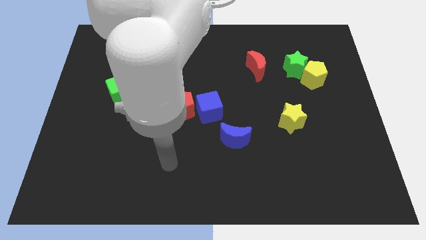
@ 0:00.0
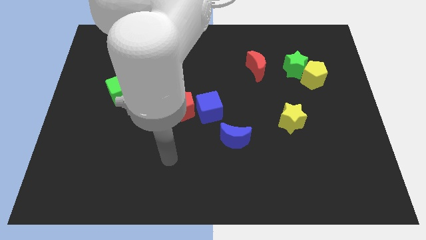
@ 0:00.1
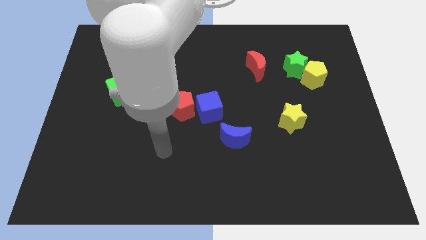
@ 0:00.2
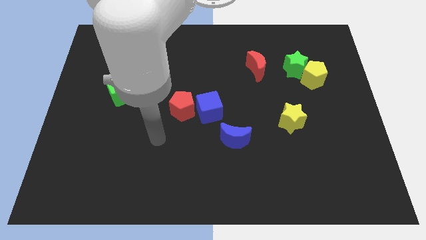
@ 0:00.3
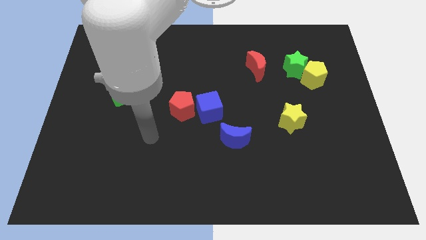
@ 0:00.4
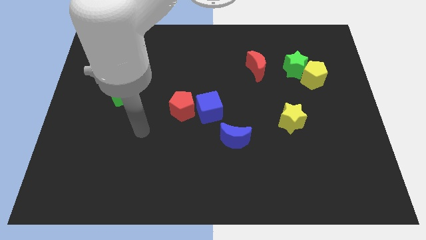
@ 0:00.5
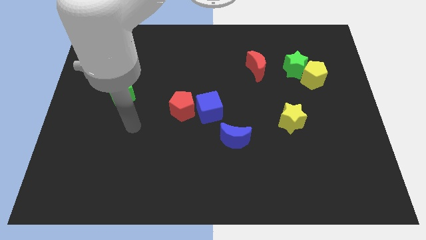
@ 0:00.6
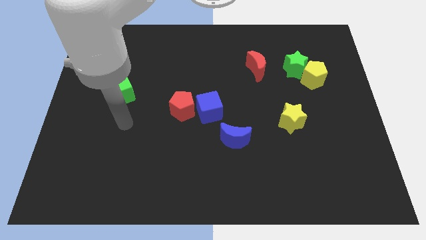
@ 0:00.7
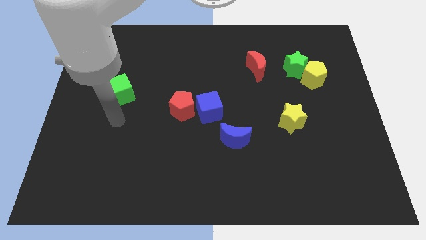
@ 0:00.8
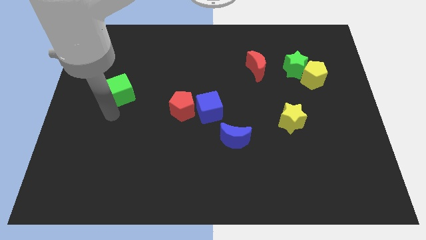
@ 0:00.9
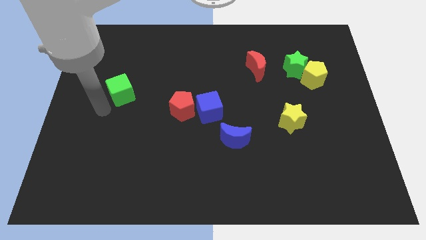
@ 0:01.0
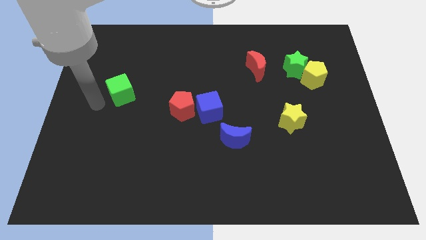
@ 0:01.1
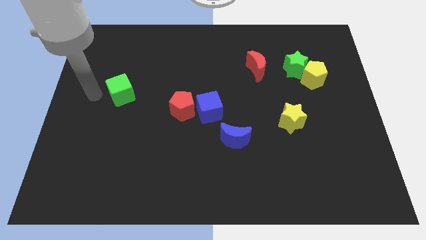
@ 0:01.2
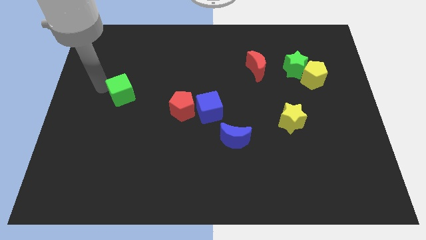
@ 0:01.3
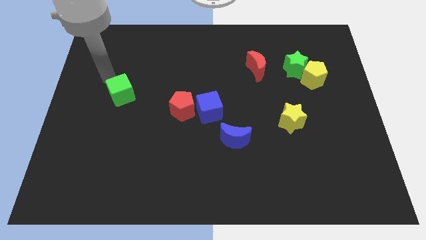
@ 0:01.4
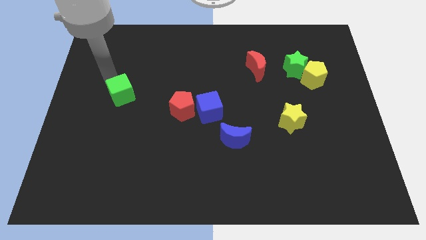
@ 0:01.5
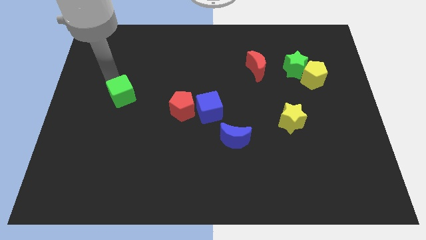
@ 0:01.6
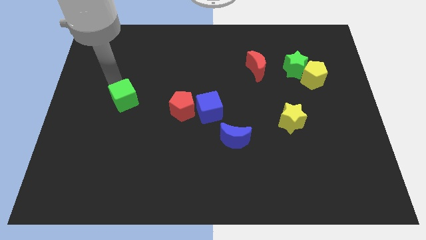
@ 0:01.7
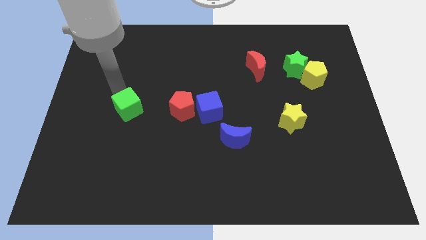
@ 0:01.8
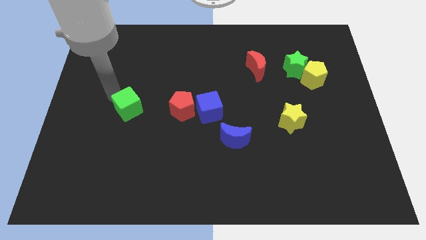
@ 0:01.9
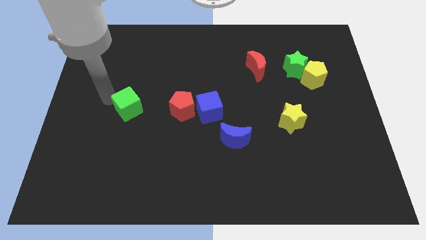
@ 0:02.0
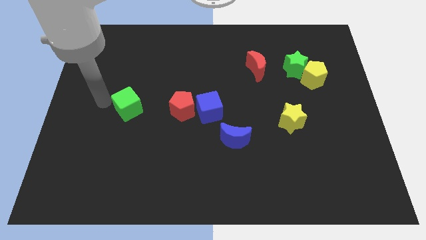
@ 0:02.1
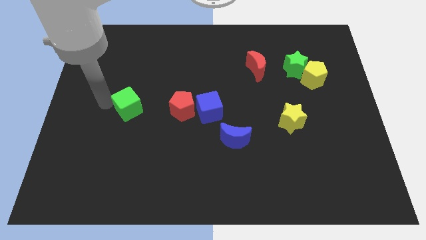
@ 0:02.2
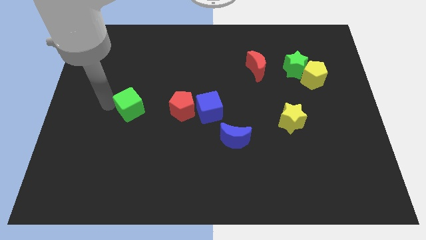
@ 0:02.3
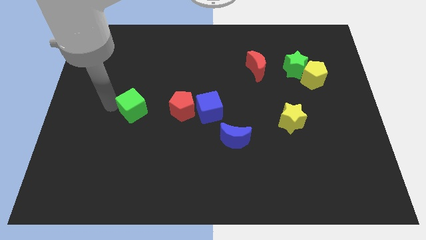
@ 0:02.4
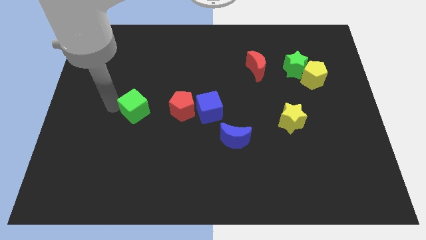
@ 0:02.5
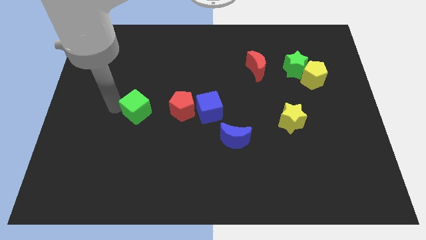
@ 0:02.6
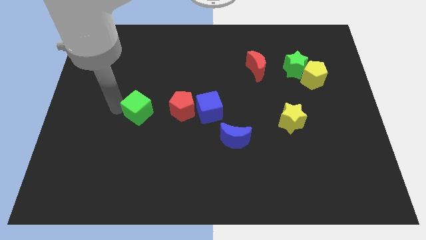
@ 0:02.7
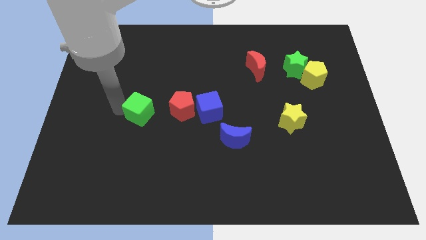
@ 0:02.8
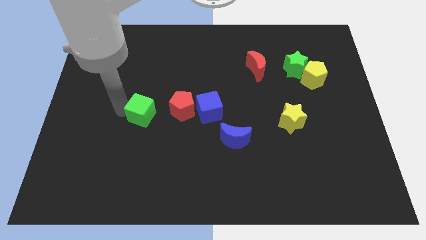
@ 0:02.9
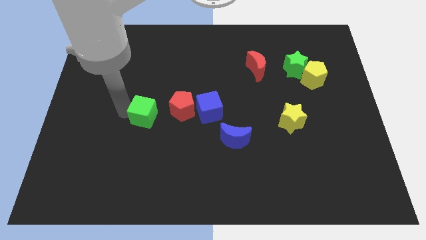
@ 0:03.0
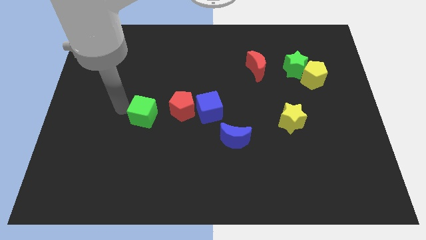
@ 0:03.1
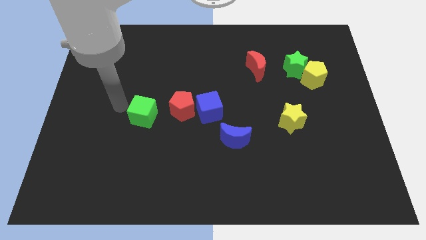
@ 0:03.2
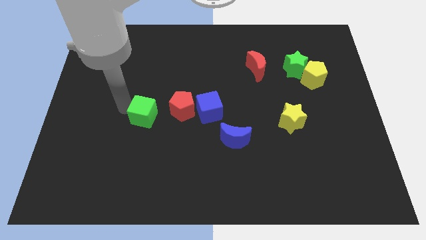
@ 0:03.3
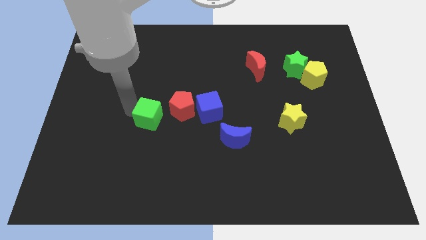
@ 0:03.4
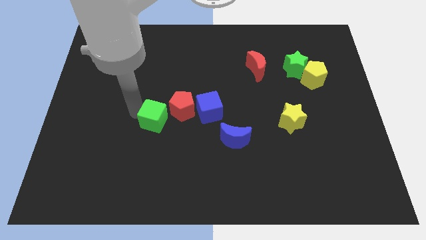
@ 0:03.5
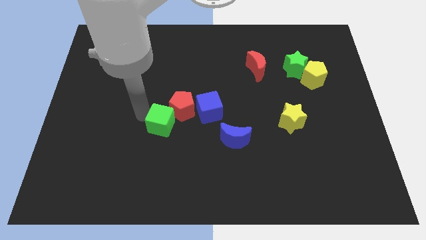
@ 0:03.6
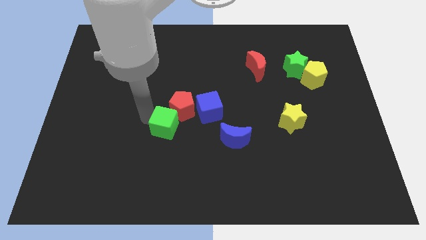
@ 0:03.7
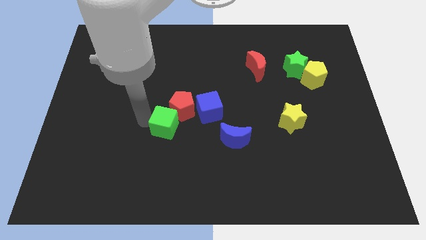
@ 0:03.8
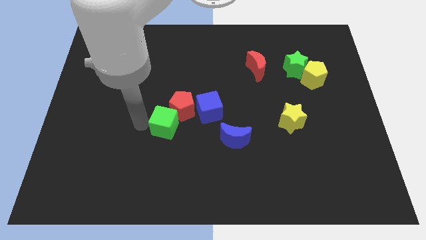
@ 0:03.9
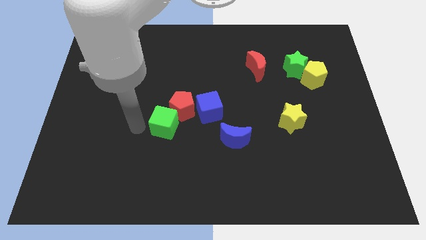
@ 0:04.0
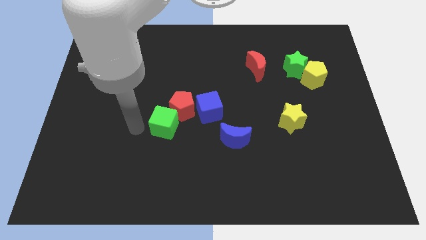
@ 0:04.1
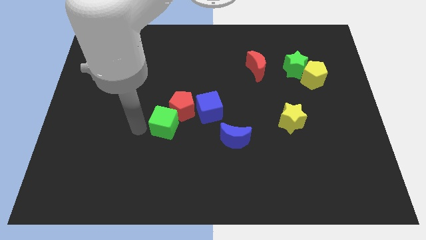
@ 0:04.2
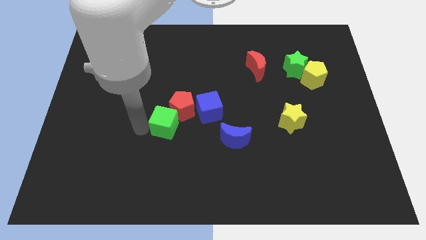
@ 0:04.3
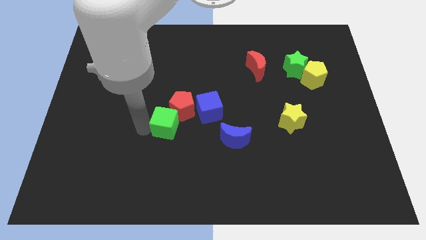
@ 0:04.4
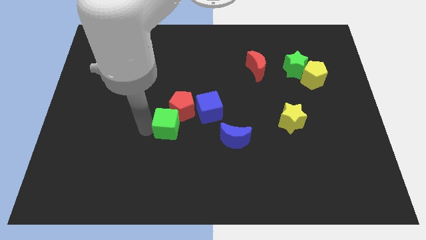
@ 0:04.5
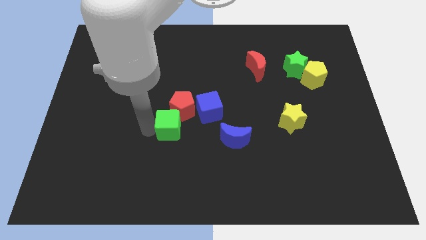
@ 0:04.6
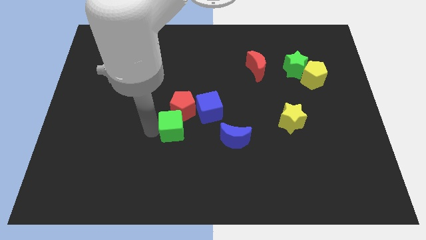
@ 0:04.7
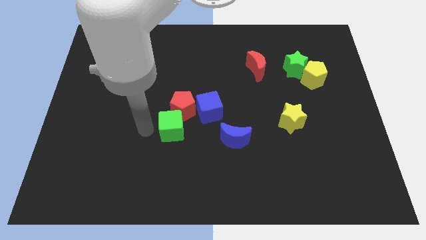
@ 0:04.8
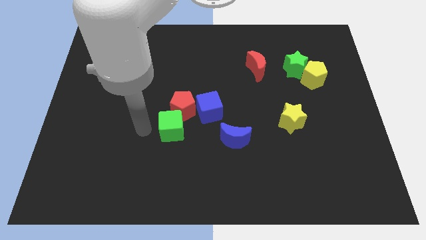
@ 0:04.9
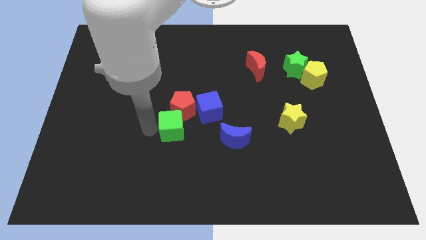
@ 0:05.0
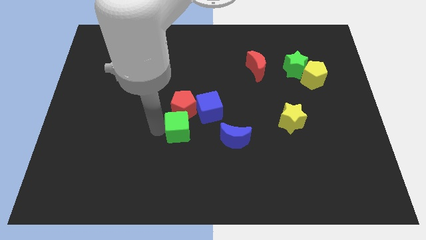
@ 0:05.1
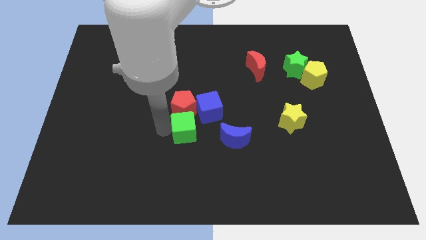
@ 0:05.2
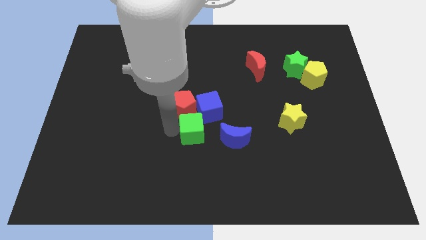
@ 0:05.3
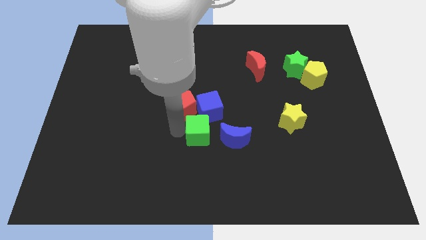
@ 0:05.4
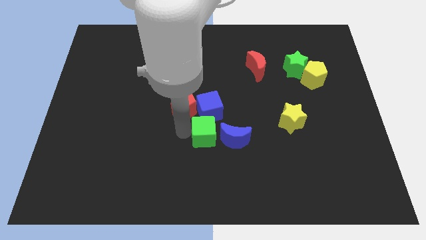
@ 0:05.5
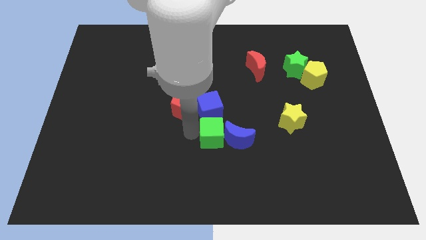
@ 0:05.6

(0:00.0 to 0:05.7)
move the green cube next to the blue moon

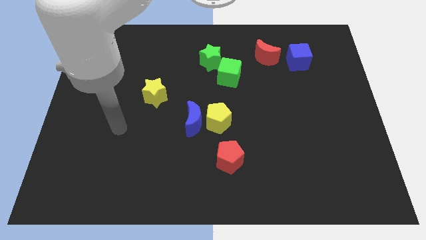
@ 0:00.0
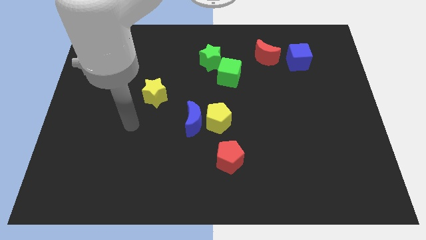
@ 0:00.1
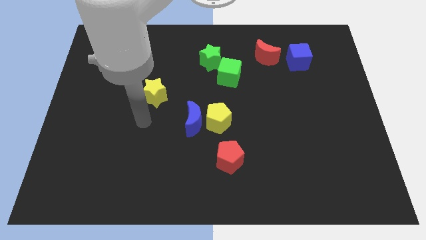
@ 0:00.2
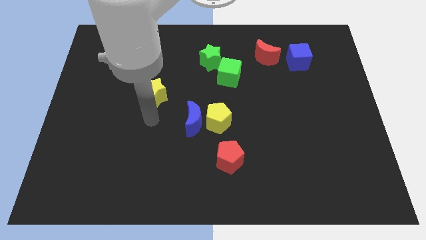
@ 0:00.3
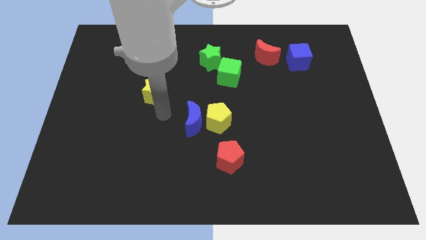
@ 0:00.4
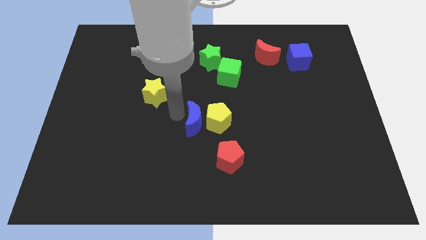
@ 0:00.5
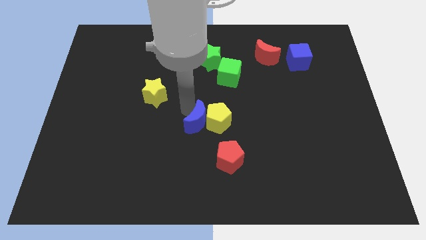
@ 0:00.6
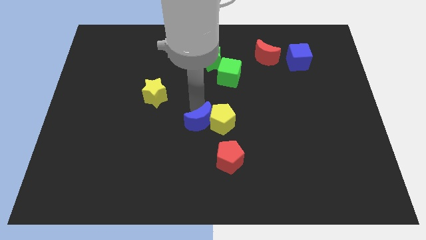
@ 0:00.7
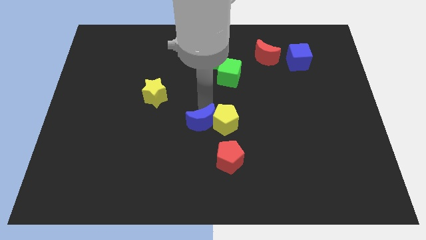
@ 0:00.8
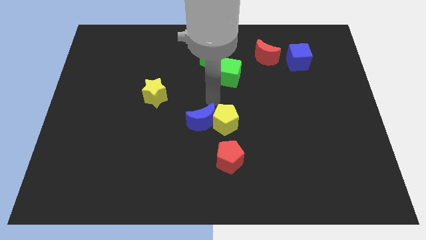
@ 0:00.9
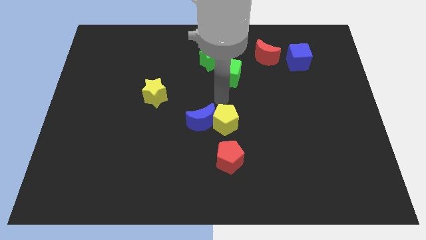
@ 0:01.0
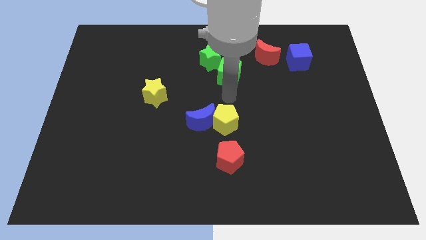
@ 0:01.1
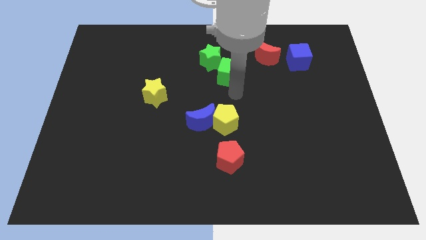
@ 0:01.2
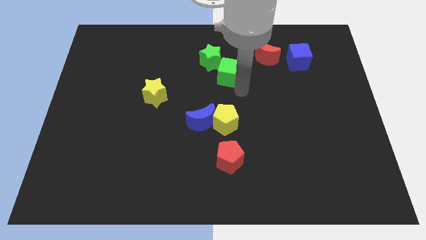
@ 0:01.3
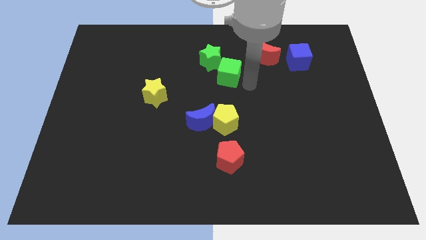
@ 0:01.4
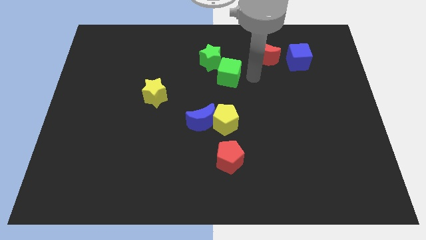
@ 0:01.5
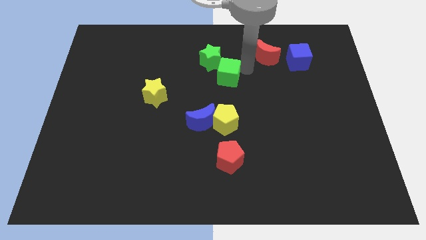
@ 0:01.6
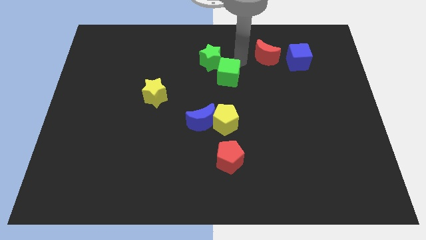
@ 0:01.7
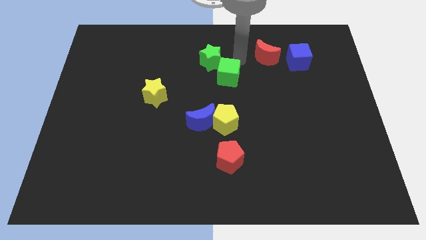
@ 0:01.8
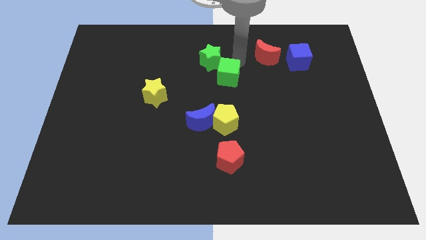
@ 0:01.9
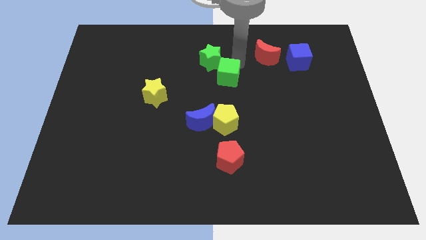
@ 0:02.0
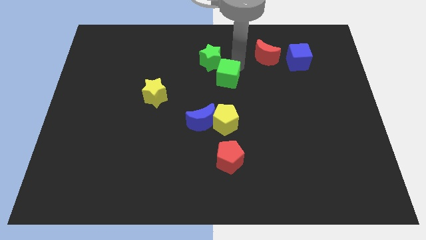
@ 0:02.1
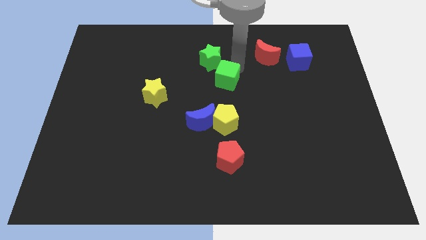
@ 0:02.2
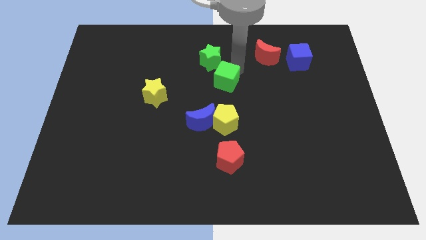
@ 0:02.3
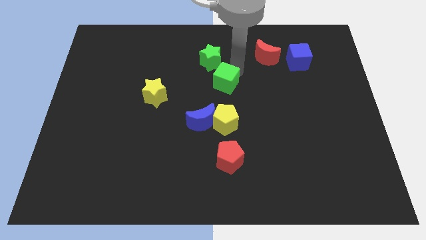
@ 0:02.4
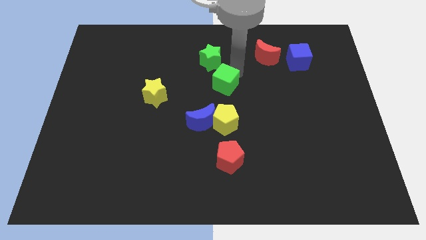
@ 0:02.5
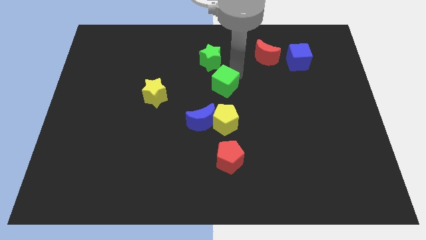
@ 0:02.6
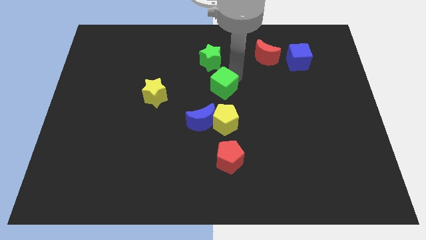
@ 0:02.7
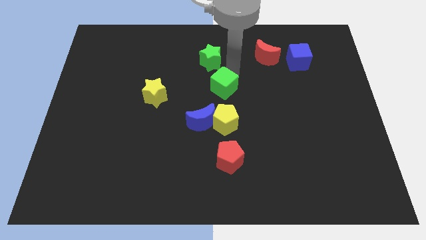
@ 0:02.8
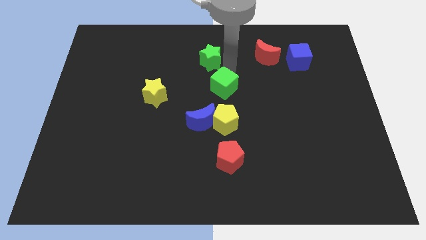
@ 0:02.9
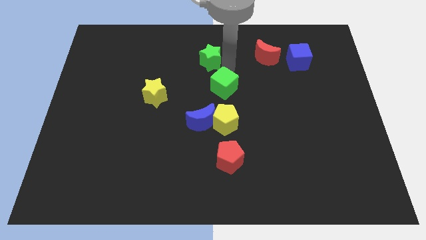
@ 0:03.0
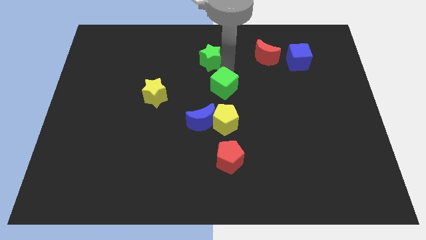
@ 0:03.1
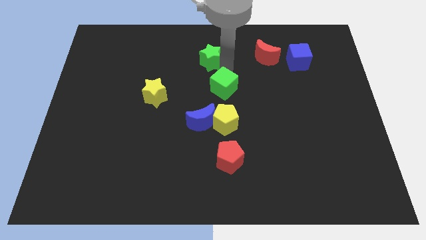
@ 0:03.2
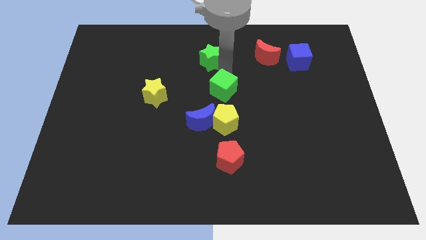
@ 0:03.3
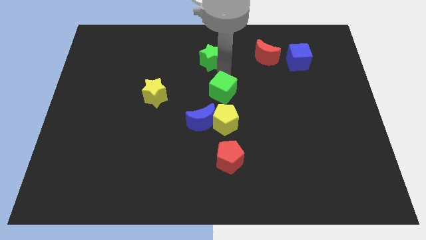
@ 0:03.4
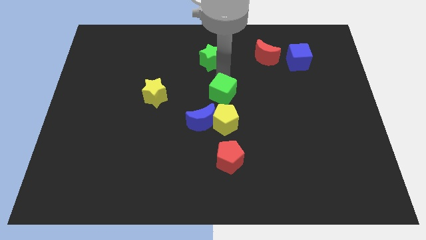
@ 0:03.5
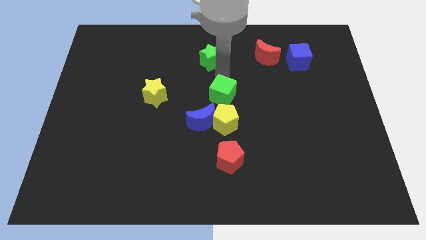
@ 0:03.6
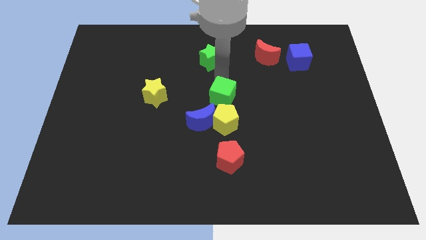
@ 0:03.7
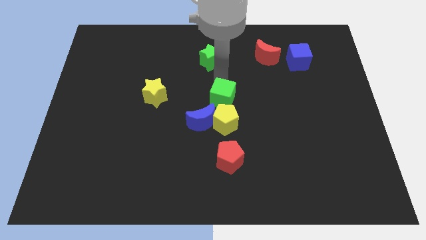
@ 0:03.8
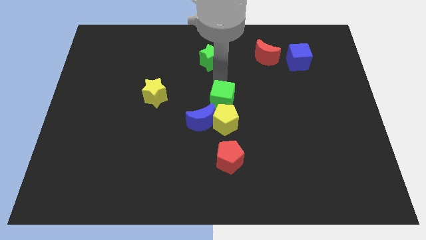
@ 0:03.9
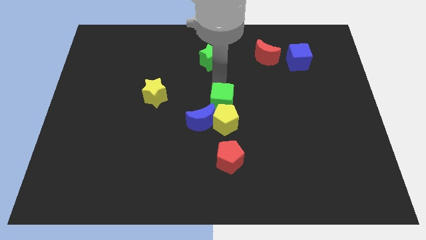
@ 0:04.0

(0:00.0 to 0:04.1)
move the green cube close to the yellow pentagon
